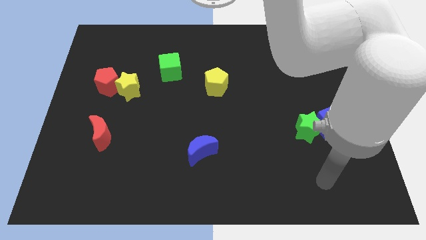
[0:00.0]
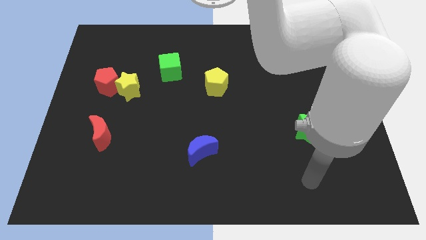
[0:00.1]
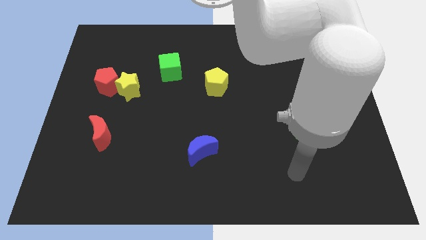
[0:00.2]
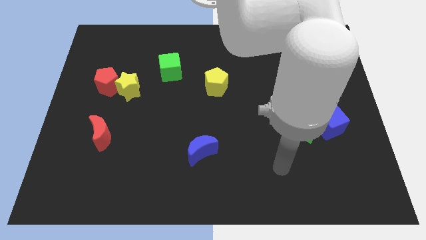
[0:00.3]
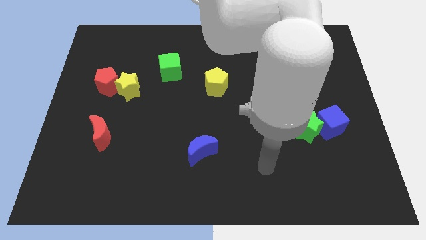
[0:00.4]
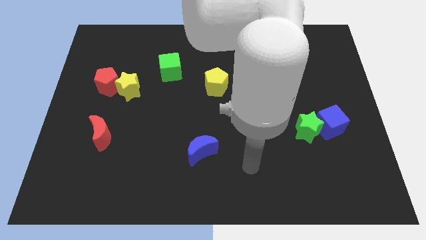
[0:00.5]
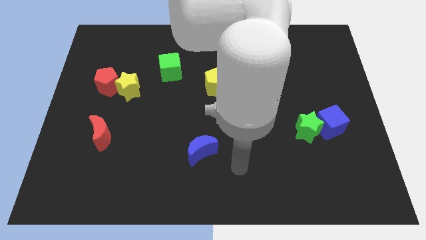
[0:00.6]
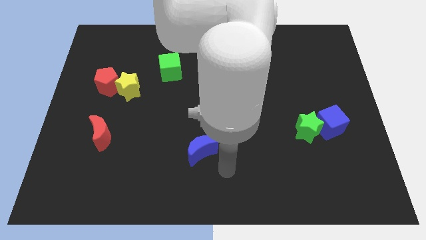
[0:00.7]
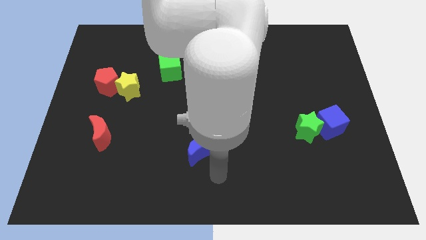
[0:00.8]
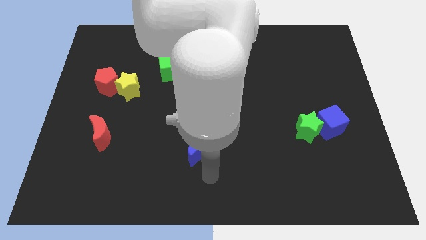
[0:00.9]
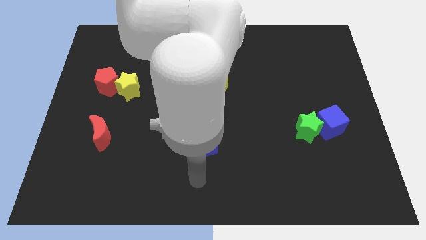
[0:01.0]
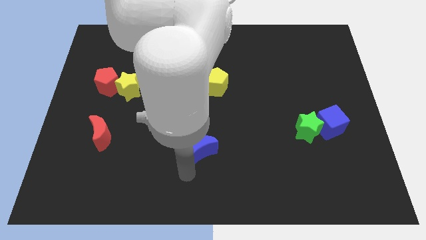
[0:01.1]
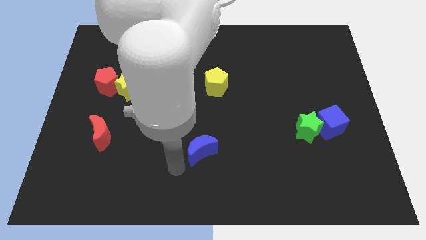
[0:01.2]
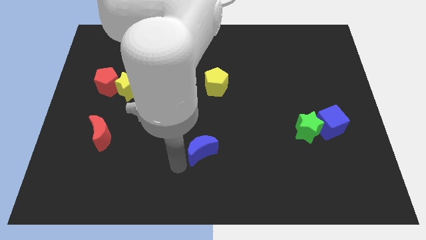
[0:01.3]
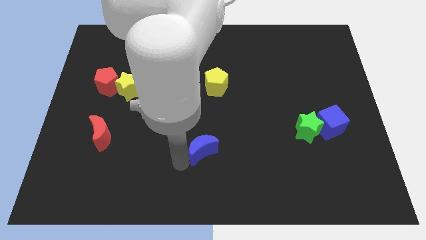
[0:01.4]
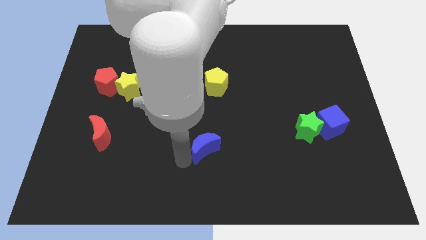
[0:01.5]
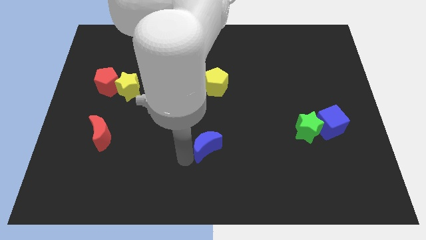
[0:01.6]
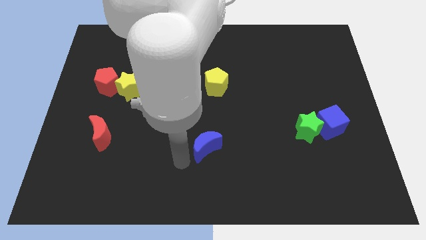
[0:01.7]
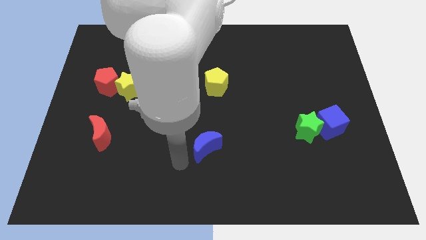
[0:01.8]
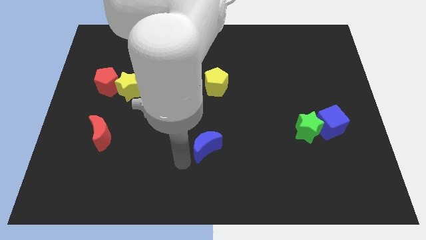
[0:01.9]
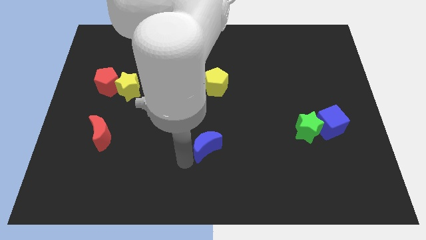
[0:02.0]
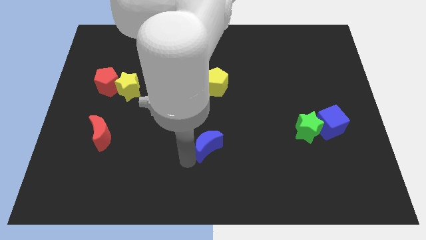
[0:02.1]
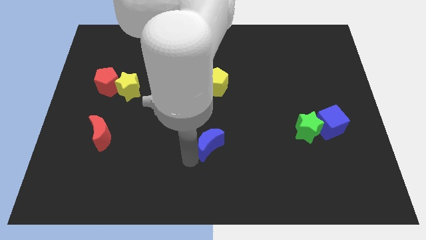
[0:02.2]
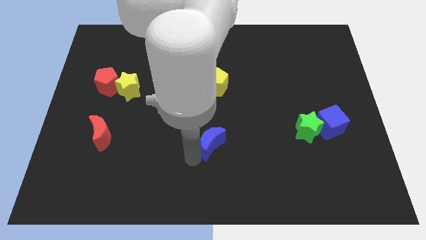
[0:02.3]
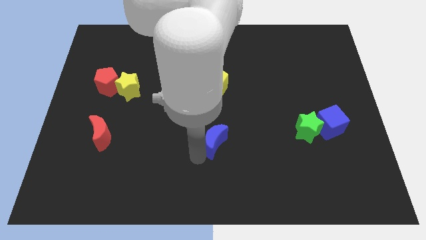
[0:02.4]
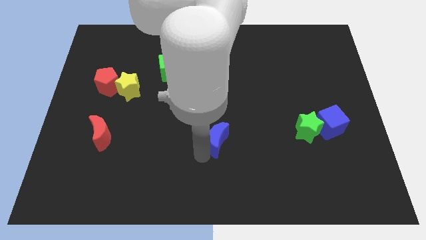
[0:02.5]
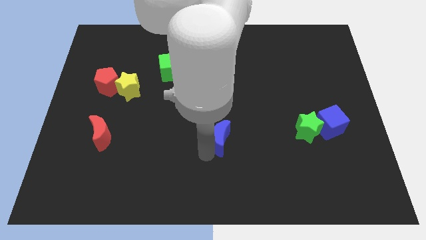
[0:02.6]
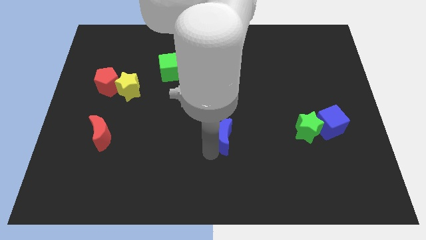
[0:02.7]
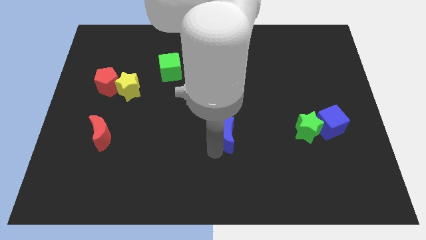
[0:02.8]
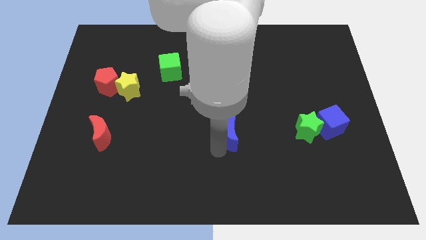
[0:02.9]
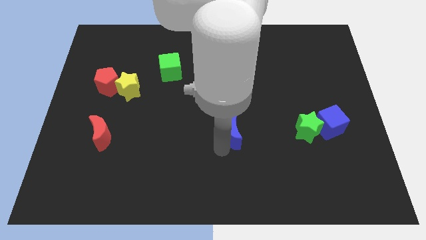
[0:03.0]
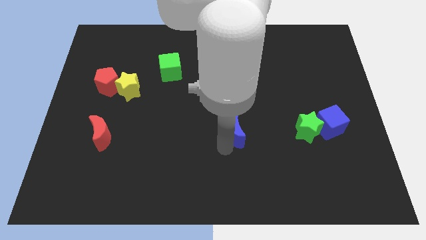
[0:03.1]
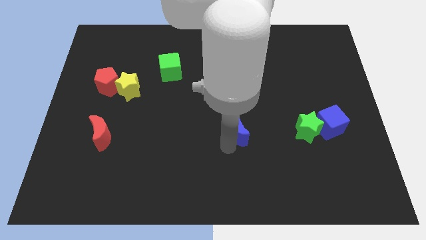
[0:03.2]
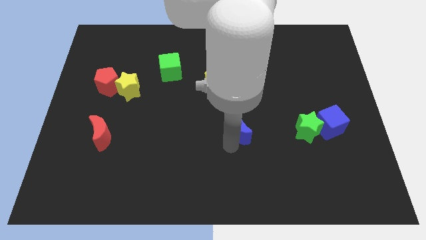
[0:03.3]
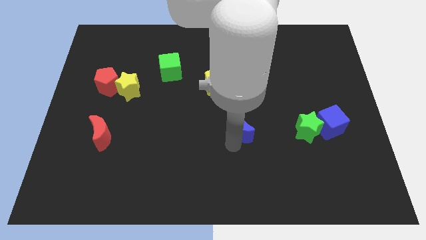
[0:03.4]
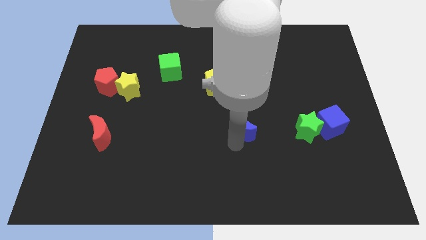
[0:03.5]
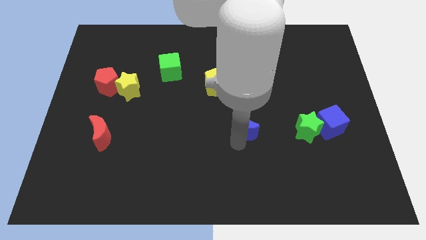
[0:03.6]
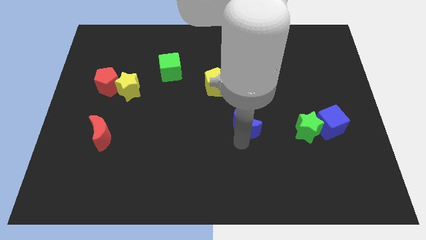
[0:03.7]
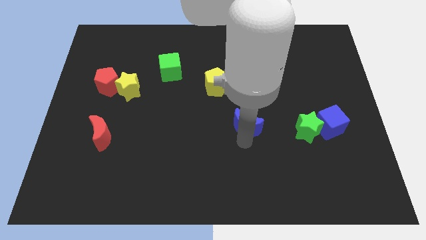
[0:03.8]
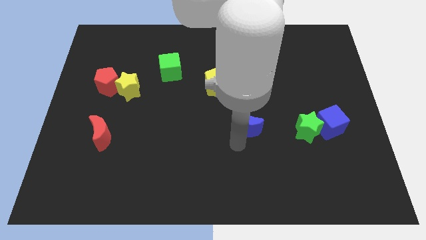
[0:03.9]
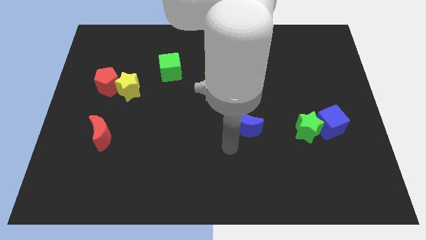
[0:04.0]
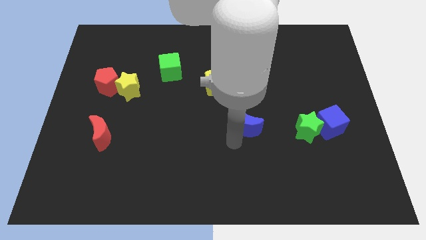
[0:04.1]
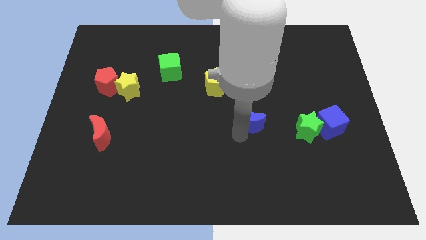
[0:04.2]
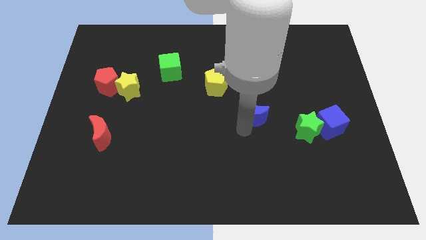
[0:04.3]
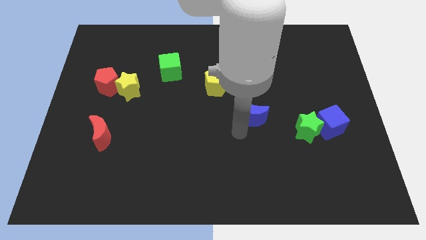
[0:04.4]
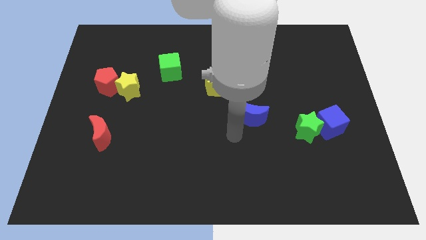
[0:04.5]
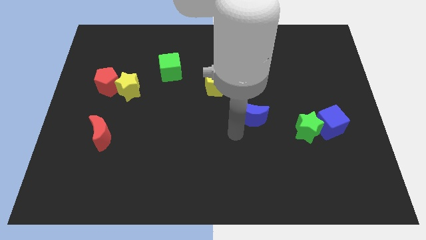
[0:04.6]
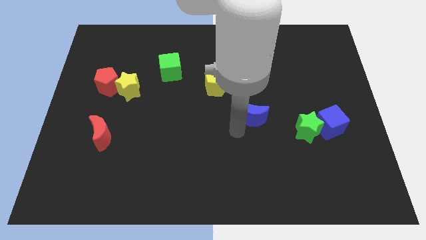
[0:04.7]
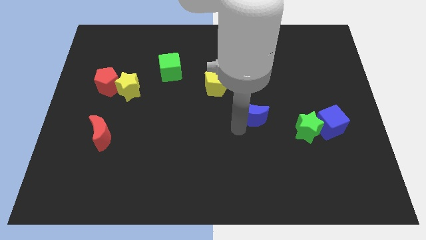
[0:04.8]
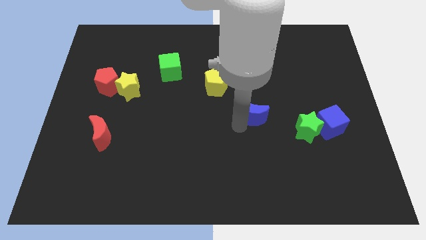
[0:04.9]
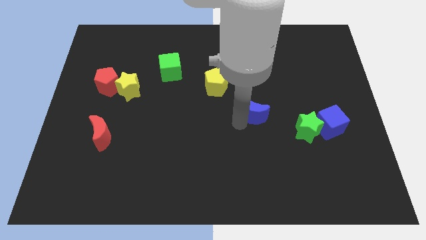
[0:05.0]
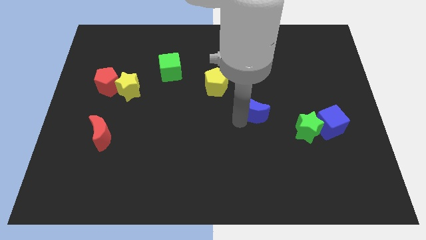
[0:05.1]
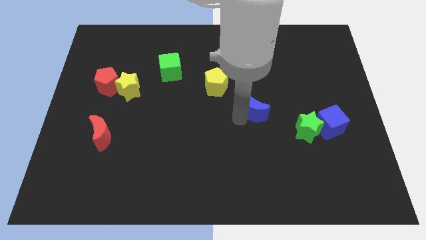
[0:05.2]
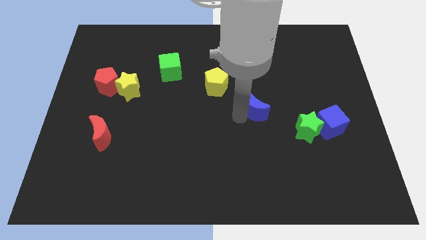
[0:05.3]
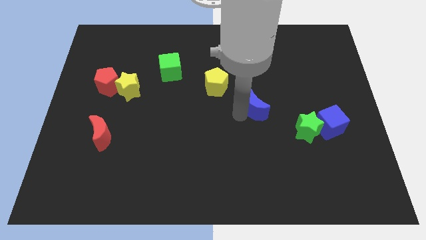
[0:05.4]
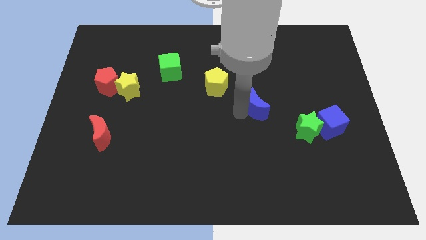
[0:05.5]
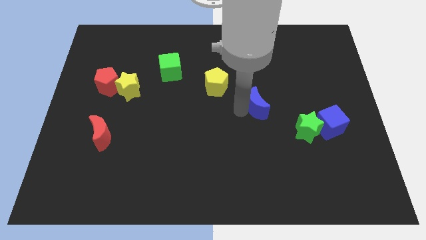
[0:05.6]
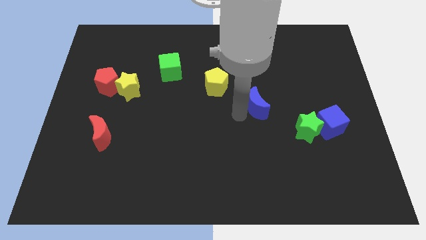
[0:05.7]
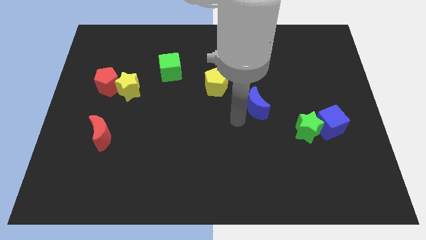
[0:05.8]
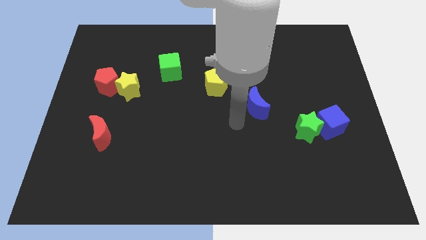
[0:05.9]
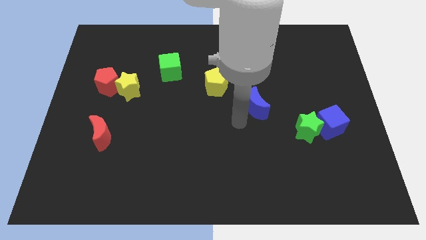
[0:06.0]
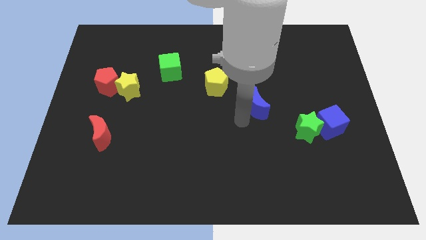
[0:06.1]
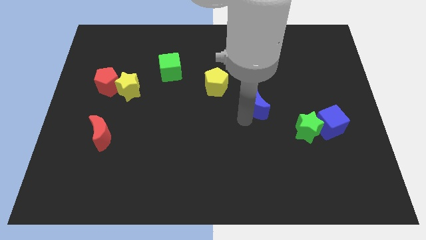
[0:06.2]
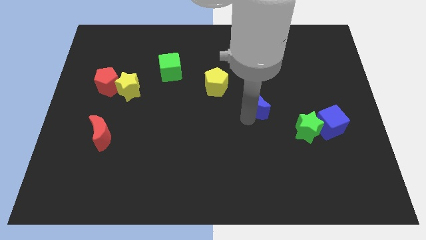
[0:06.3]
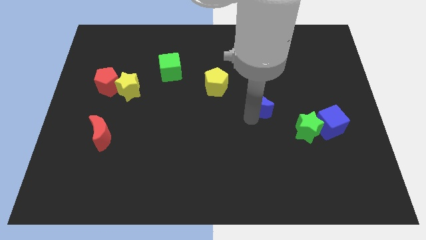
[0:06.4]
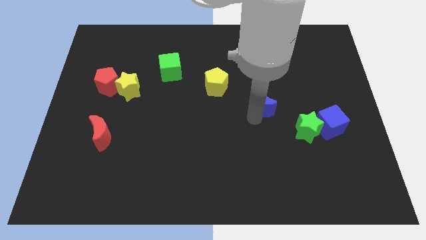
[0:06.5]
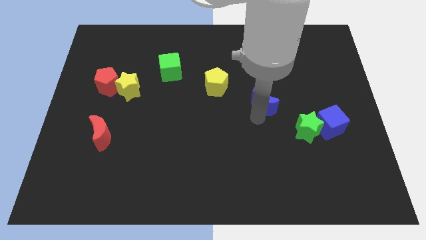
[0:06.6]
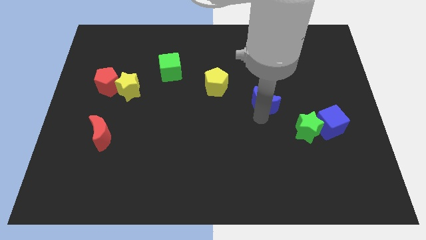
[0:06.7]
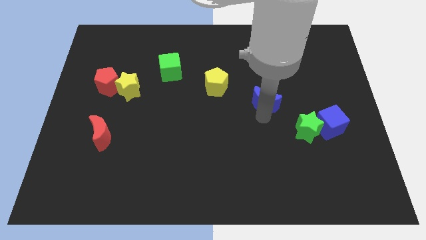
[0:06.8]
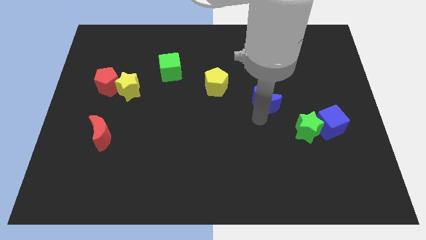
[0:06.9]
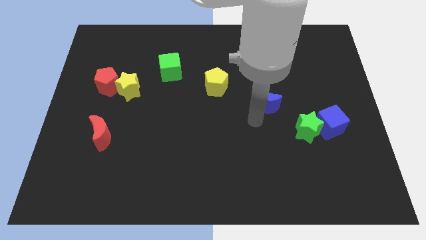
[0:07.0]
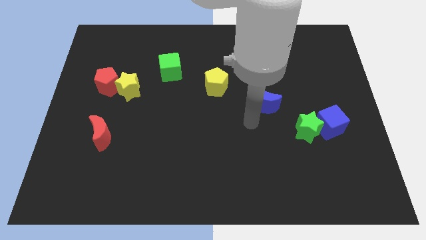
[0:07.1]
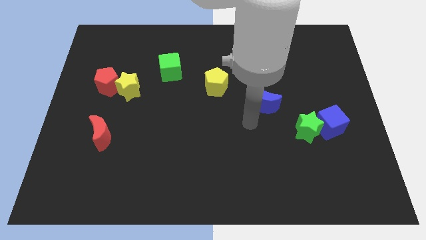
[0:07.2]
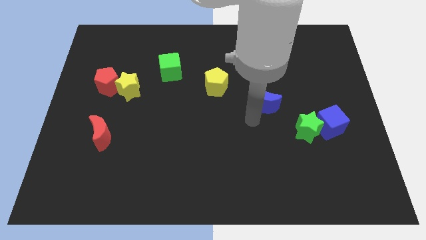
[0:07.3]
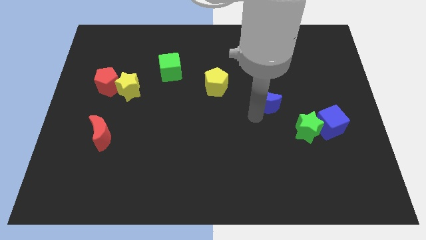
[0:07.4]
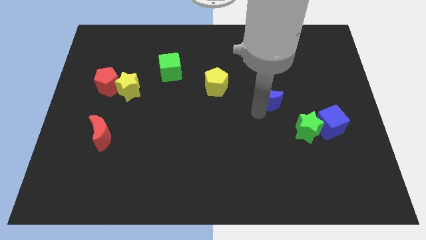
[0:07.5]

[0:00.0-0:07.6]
move the blue moon up and to the right

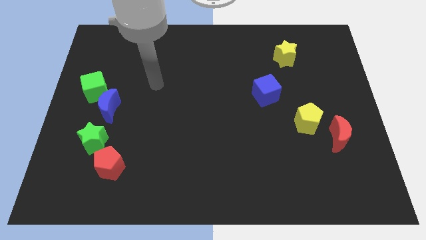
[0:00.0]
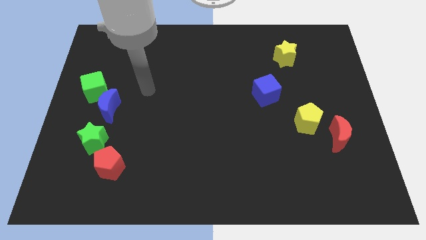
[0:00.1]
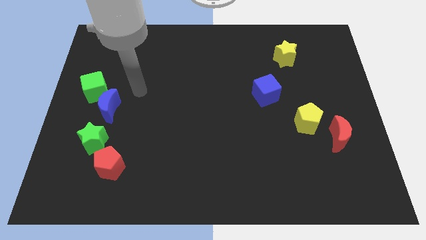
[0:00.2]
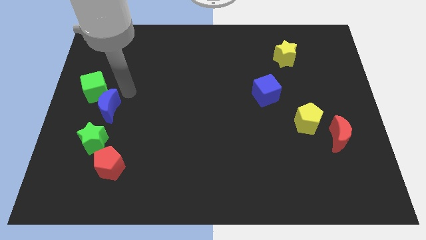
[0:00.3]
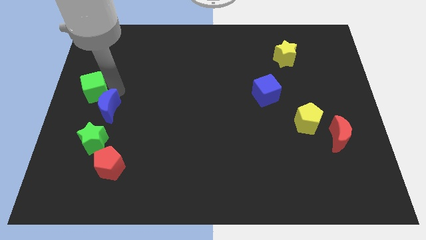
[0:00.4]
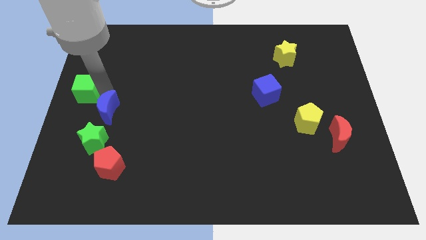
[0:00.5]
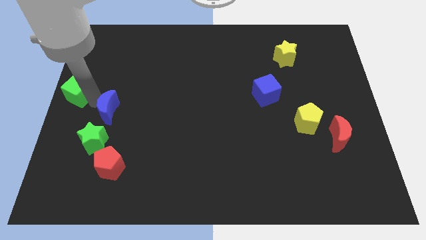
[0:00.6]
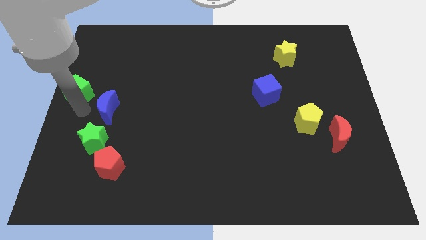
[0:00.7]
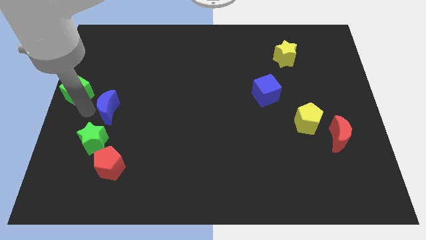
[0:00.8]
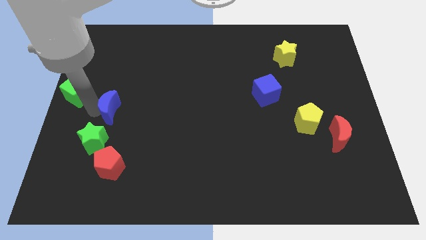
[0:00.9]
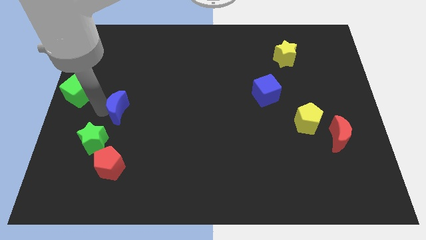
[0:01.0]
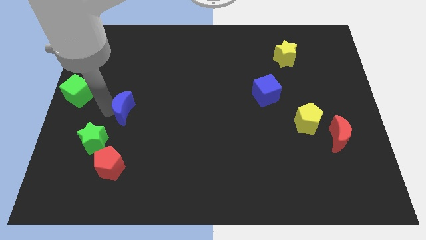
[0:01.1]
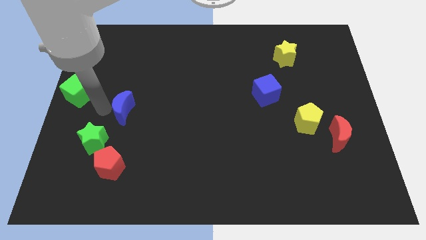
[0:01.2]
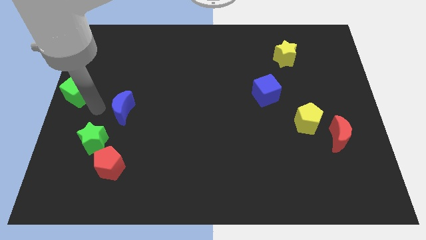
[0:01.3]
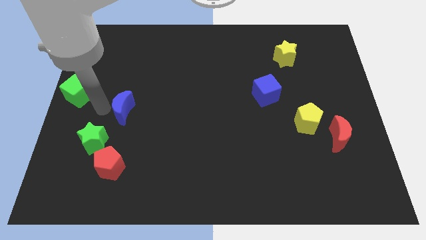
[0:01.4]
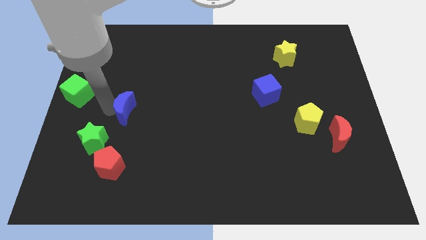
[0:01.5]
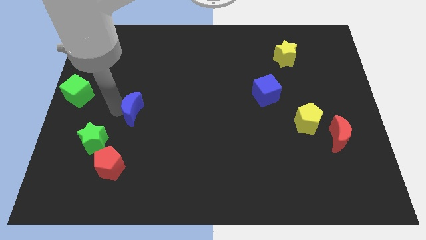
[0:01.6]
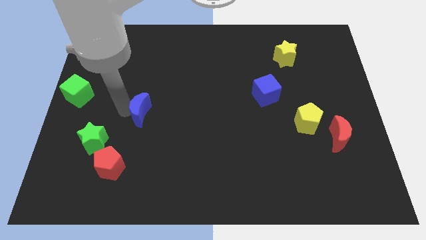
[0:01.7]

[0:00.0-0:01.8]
slightly move the blue moon to the right
